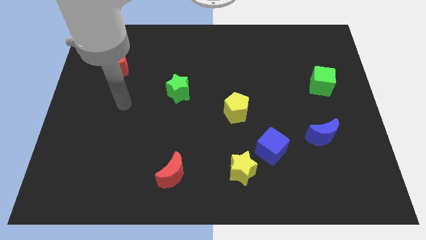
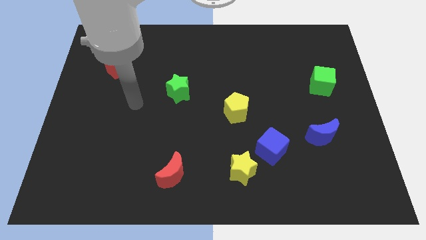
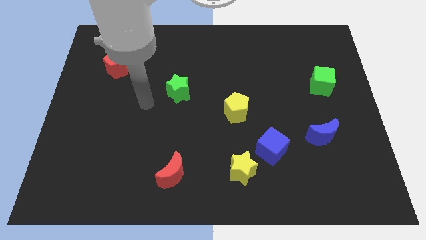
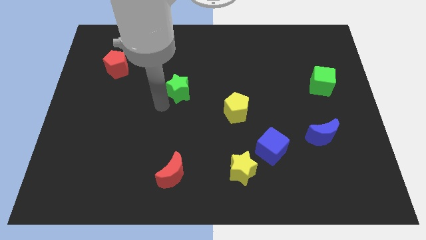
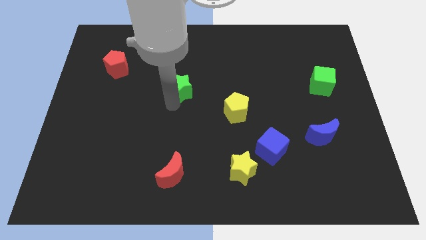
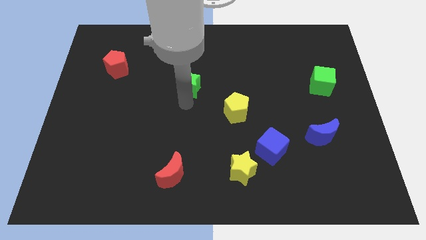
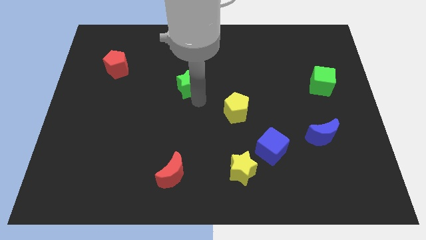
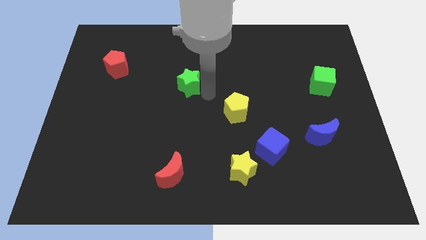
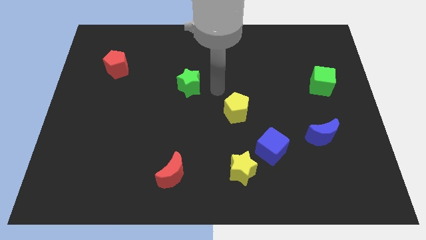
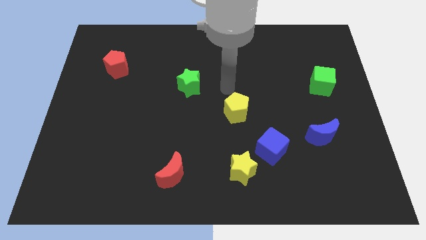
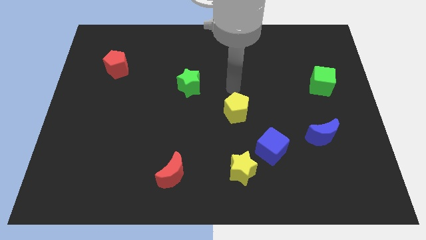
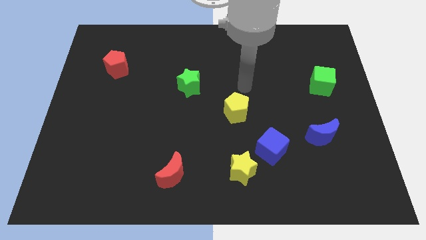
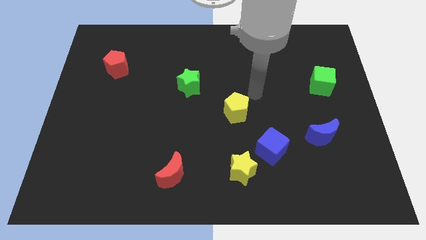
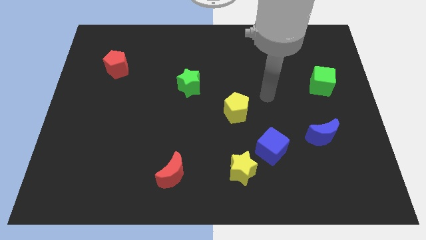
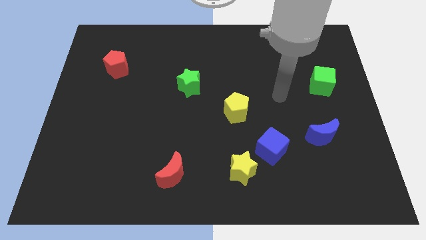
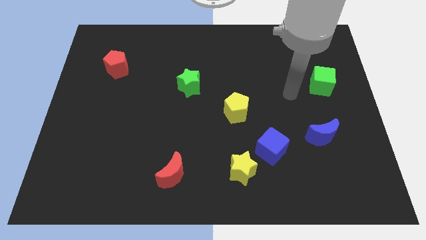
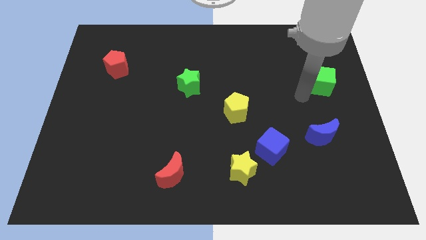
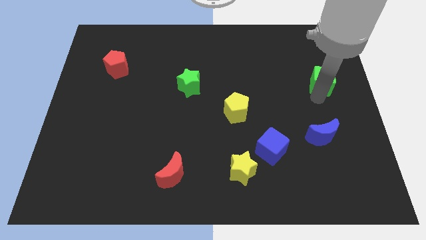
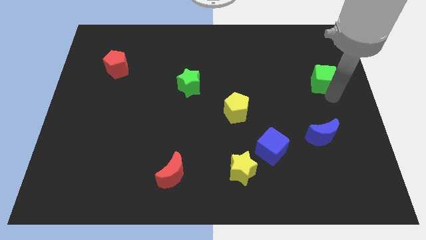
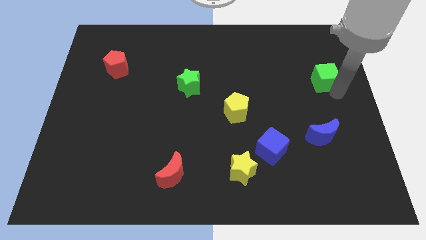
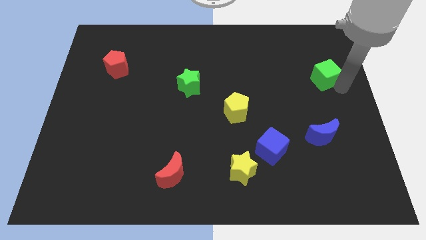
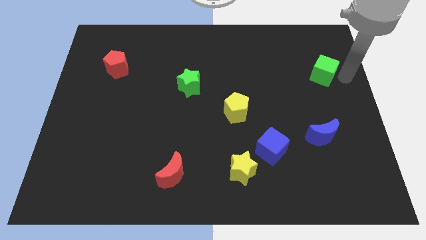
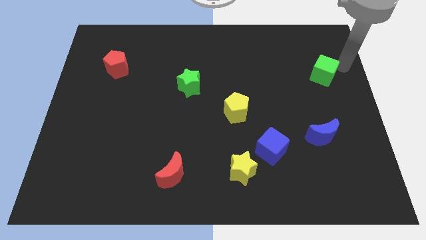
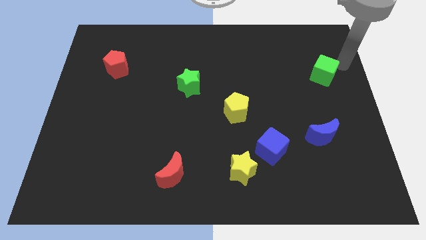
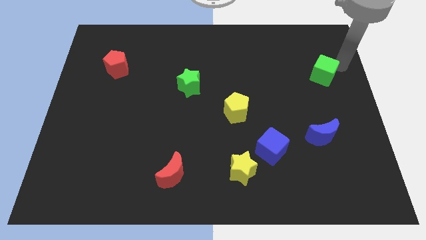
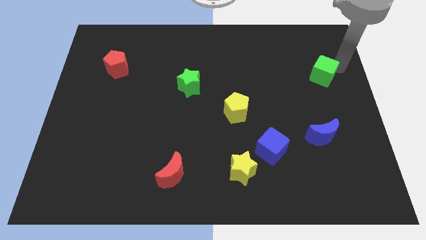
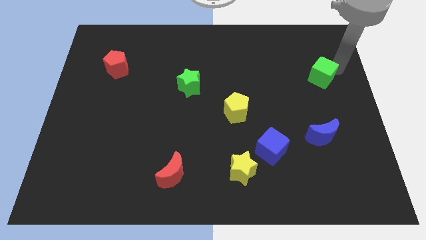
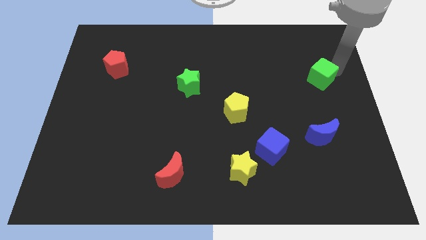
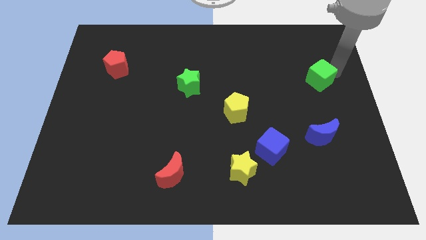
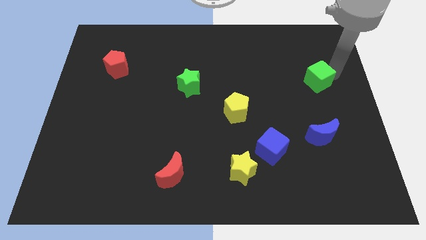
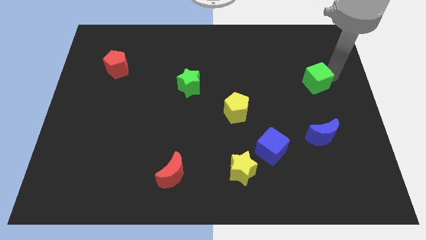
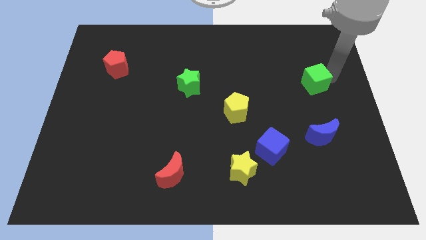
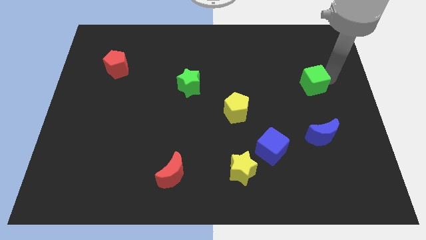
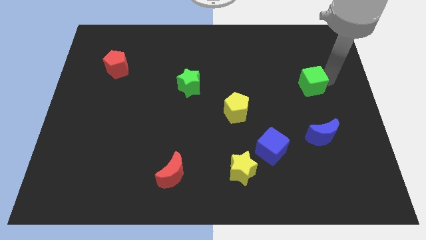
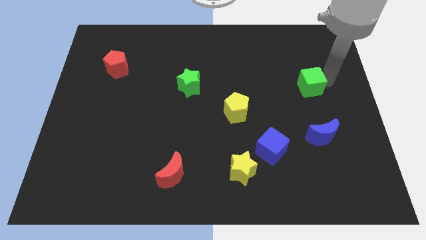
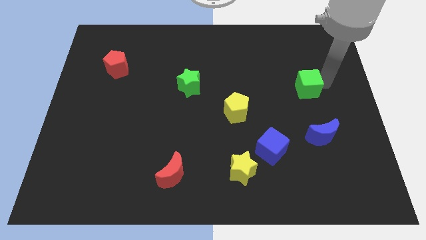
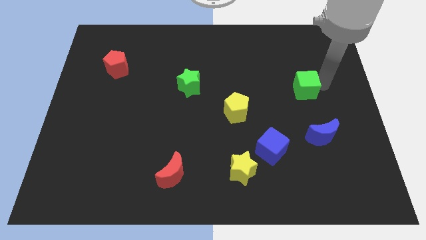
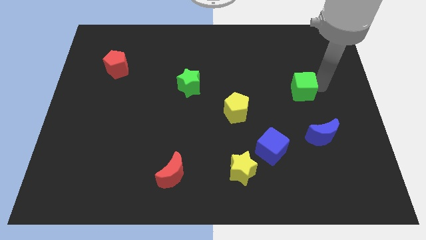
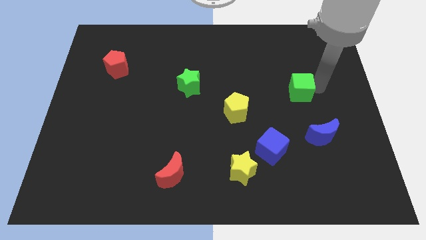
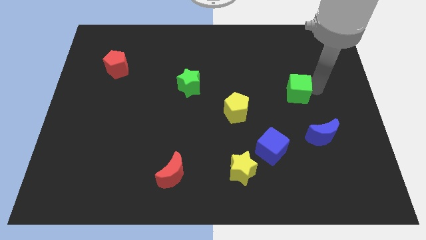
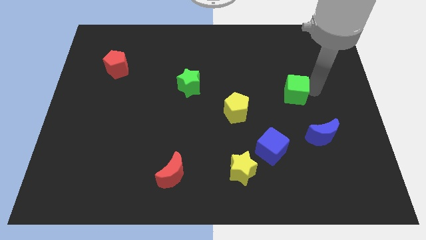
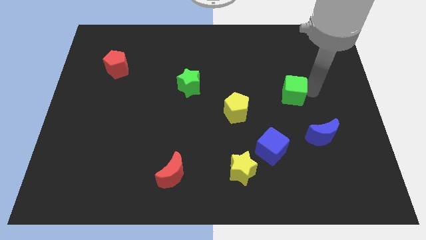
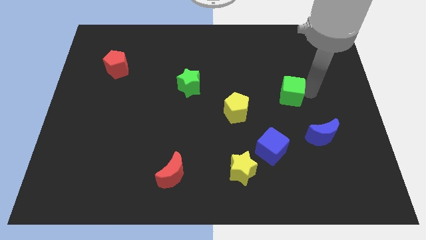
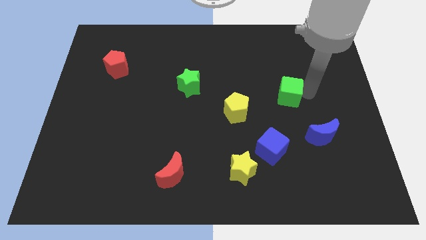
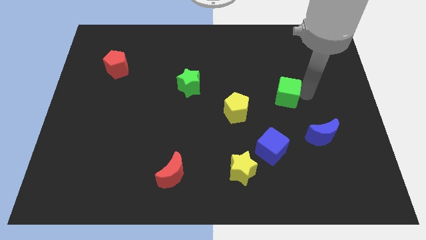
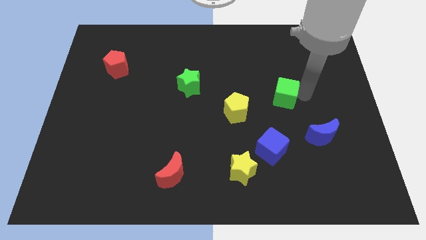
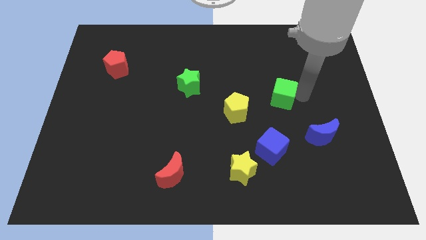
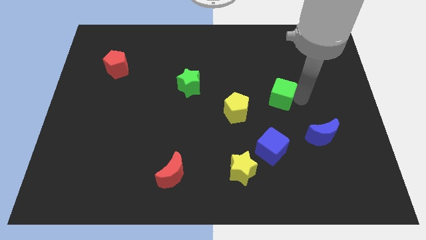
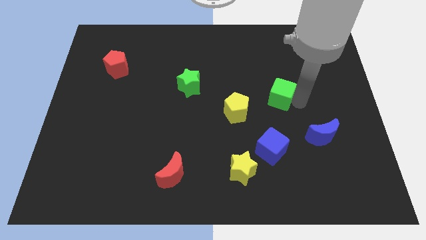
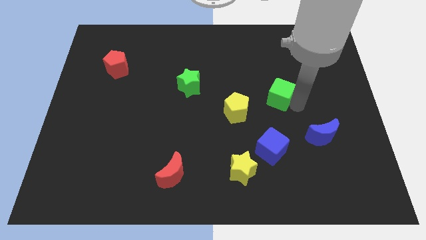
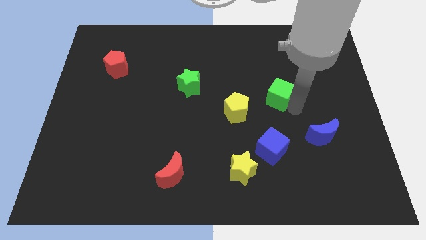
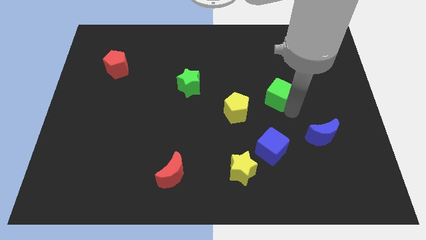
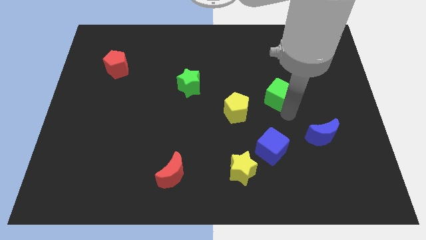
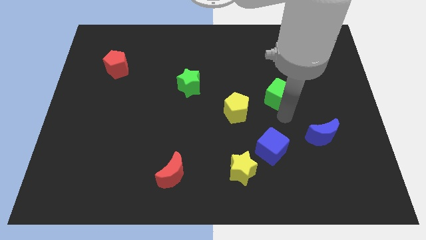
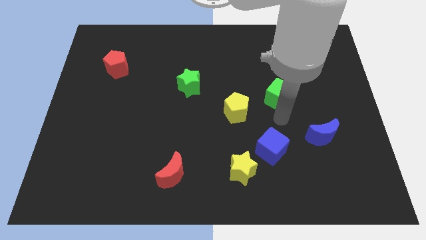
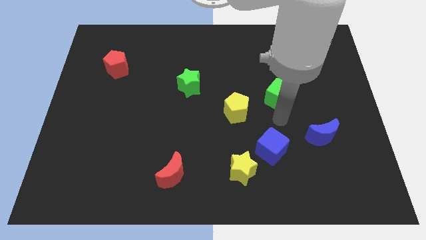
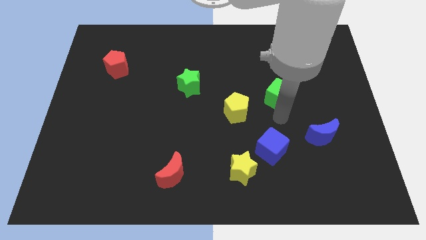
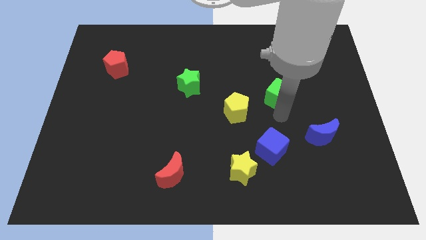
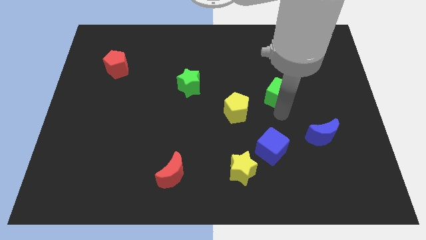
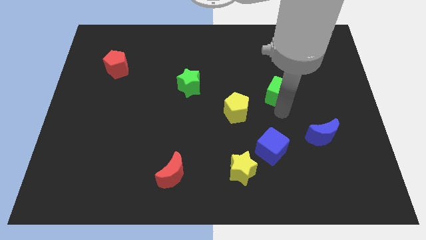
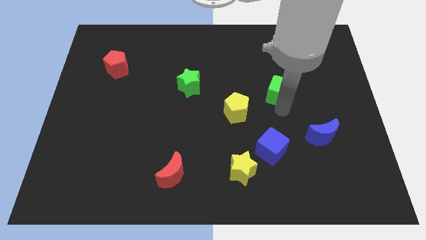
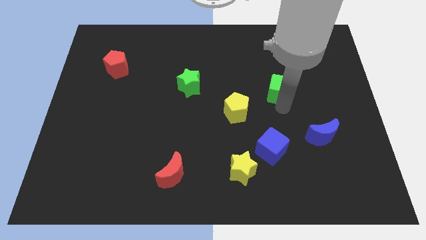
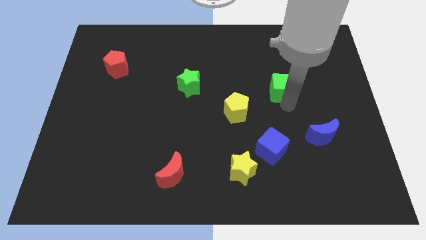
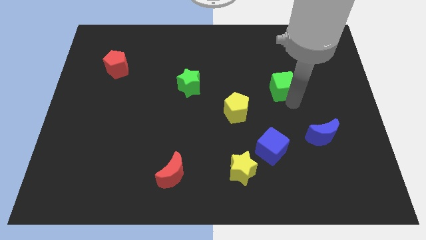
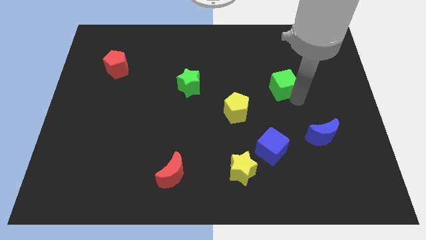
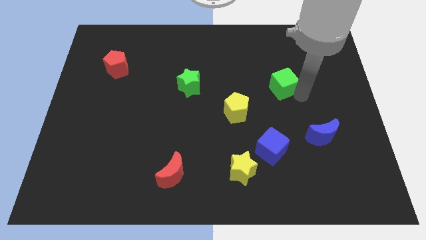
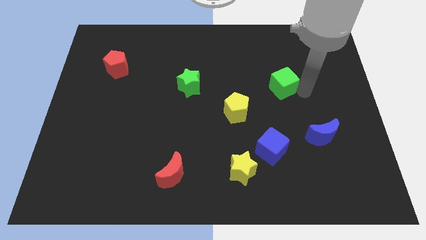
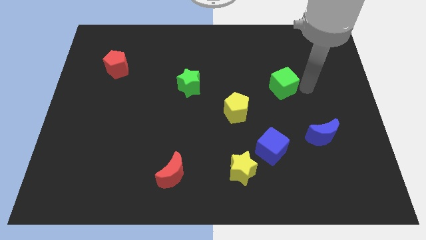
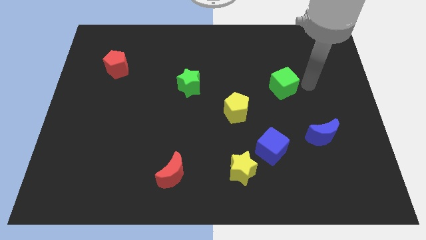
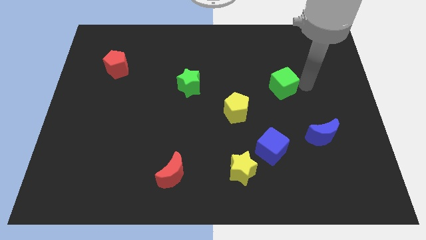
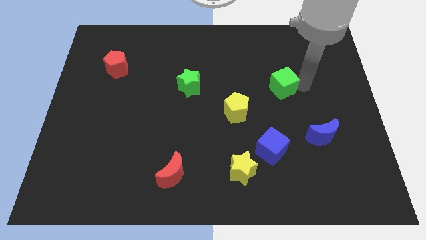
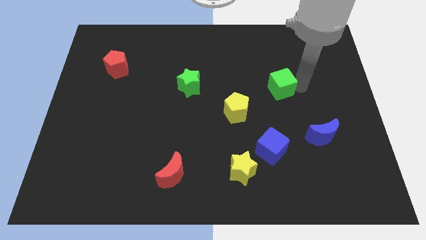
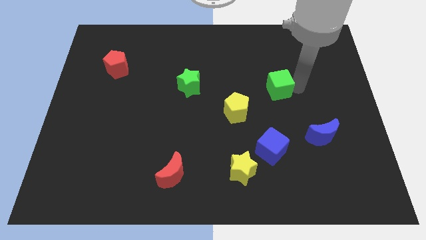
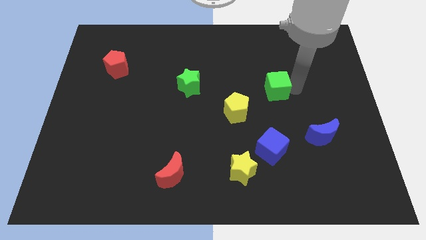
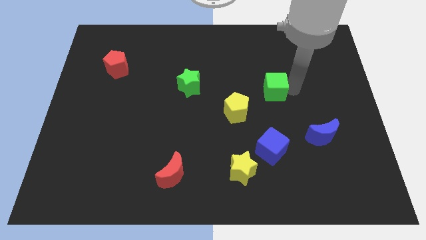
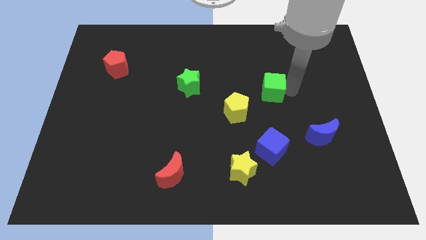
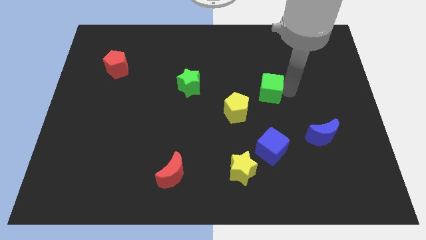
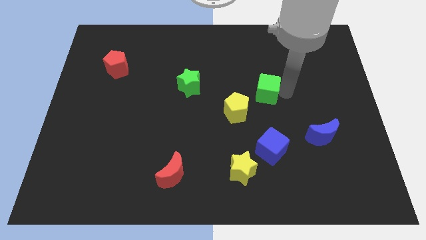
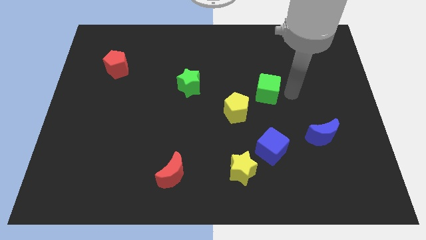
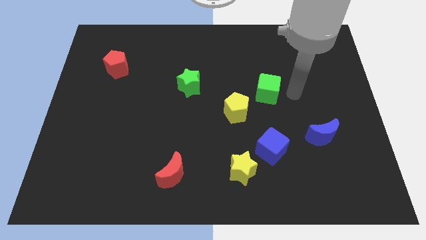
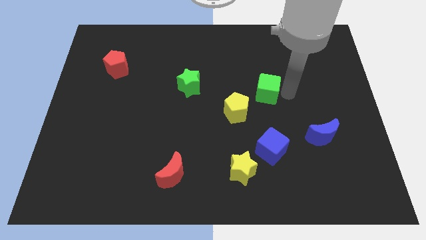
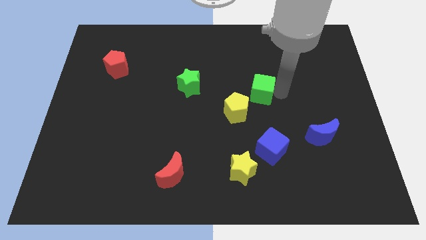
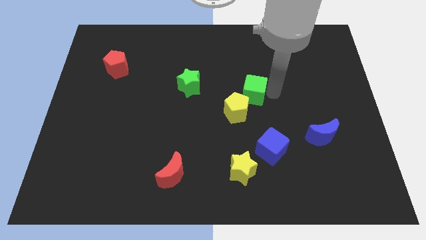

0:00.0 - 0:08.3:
push the green cube to the right of the green star
